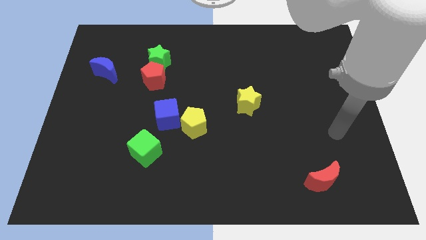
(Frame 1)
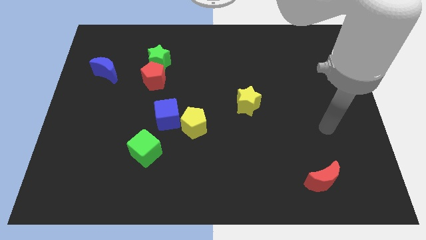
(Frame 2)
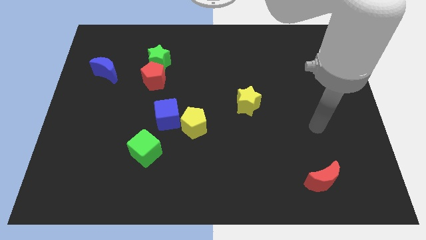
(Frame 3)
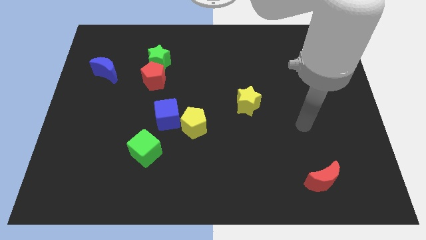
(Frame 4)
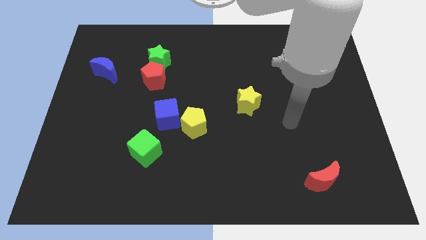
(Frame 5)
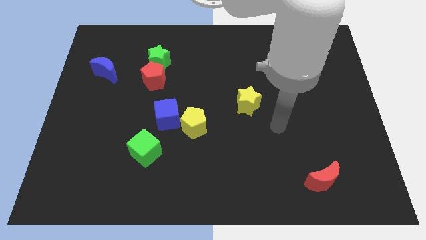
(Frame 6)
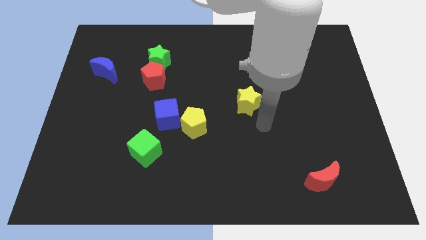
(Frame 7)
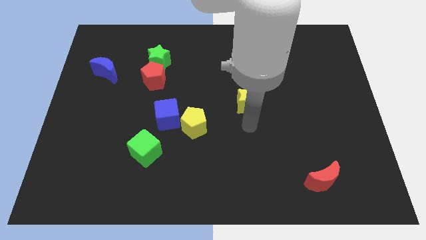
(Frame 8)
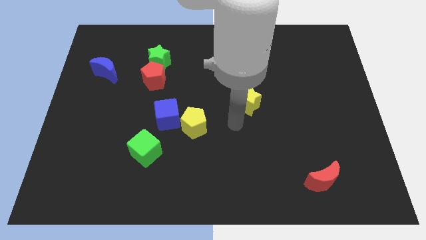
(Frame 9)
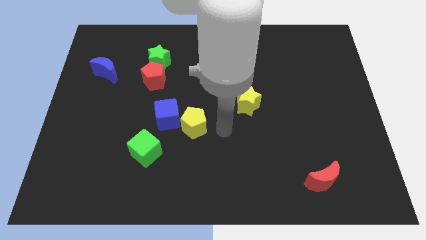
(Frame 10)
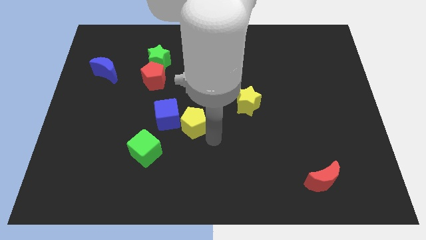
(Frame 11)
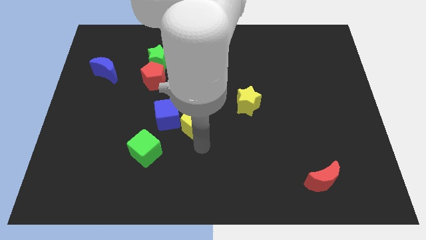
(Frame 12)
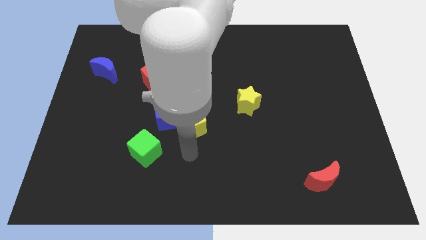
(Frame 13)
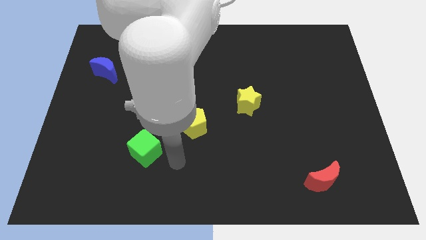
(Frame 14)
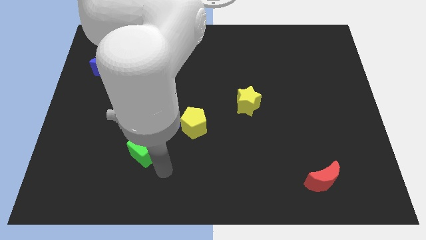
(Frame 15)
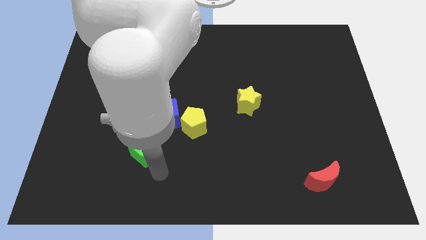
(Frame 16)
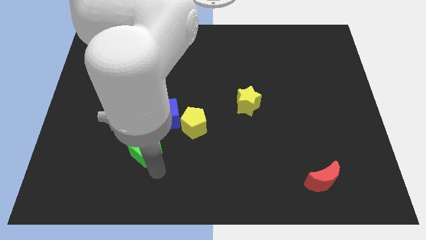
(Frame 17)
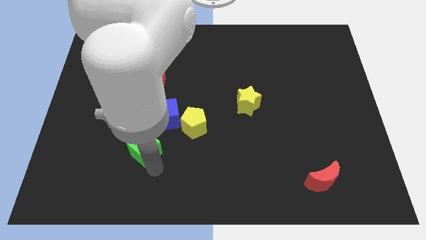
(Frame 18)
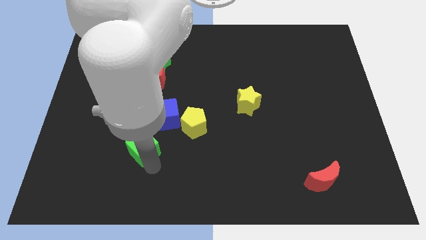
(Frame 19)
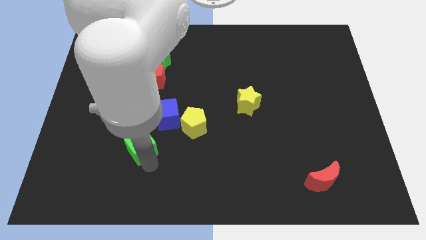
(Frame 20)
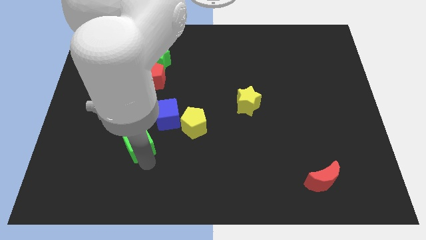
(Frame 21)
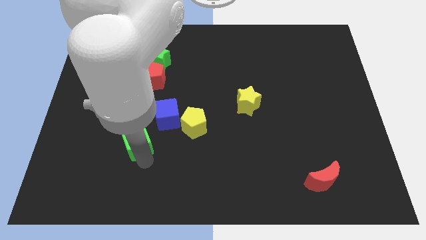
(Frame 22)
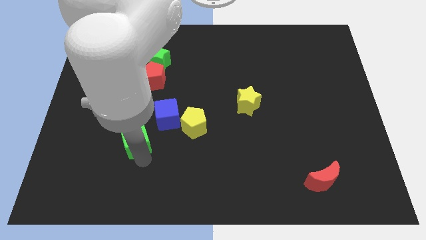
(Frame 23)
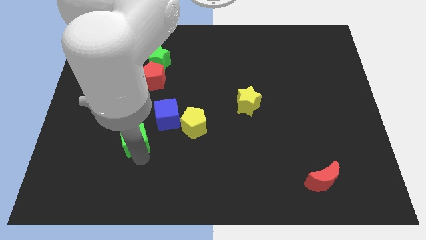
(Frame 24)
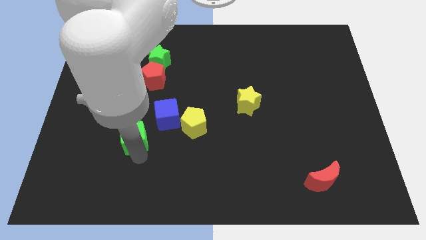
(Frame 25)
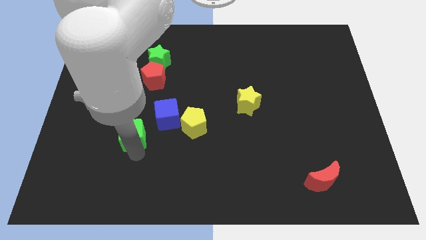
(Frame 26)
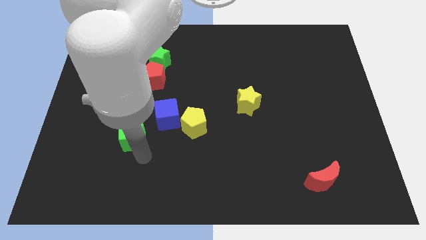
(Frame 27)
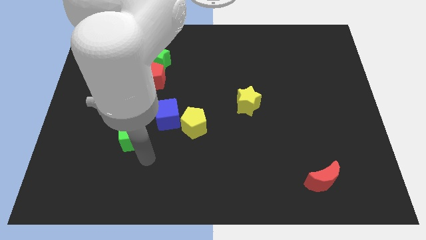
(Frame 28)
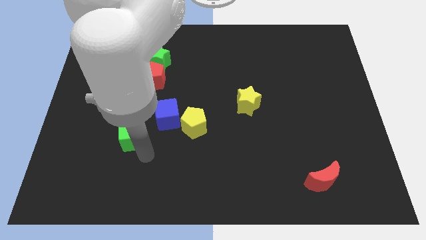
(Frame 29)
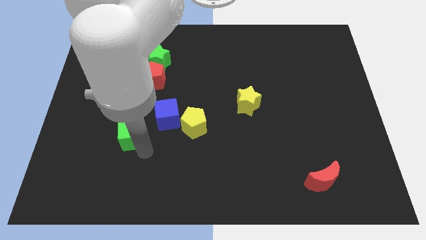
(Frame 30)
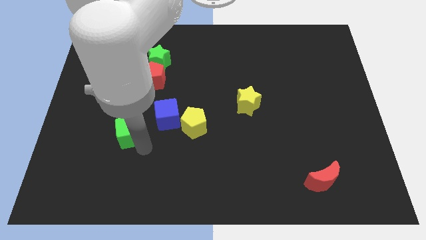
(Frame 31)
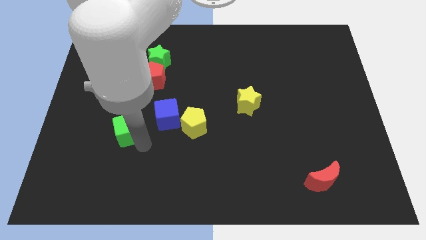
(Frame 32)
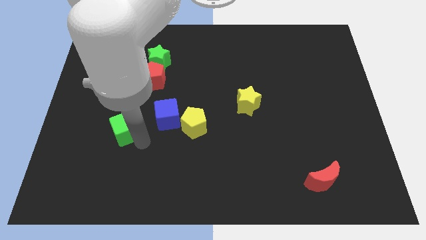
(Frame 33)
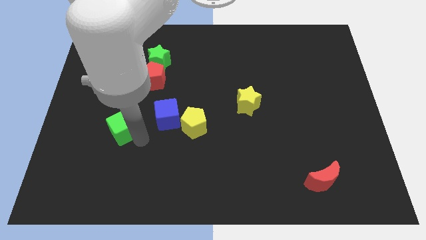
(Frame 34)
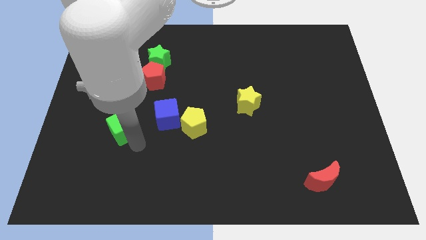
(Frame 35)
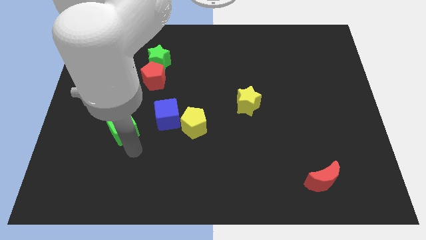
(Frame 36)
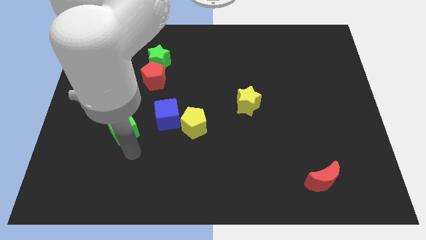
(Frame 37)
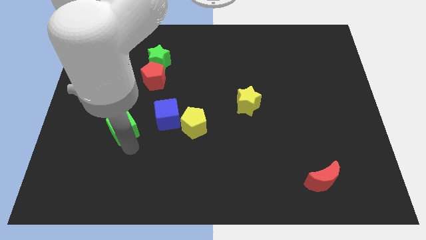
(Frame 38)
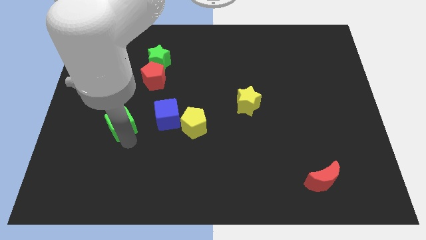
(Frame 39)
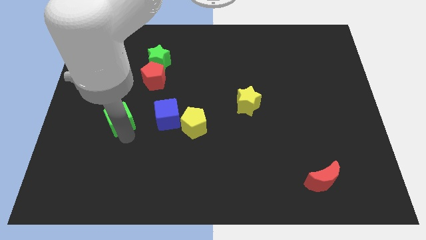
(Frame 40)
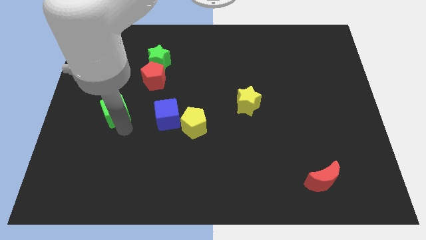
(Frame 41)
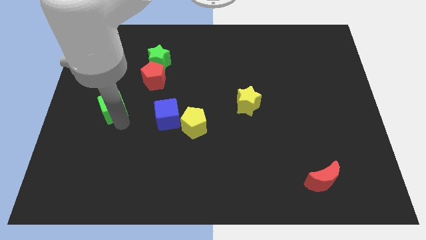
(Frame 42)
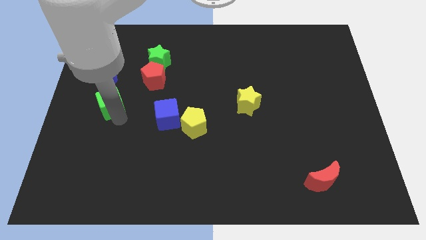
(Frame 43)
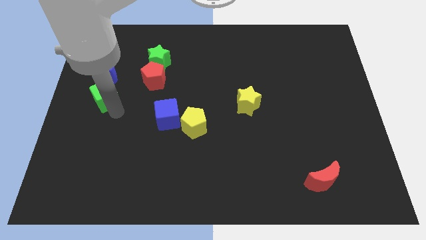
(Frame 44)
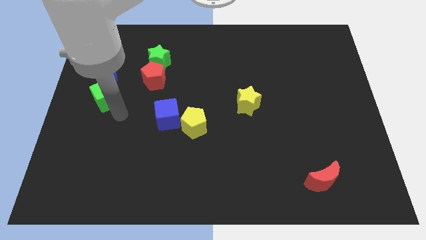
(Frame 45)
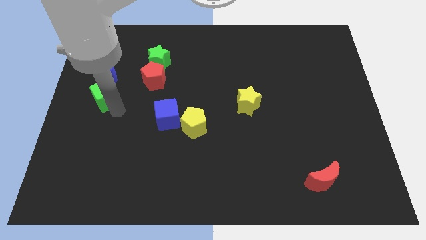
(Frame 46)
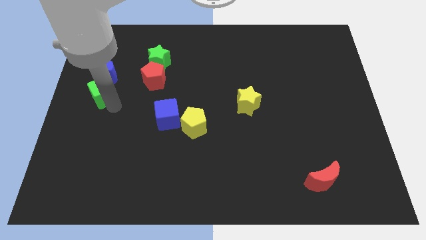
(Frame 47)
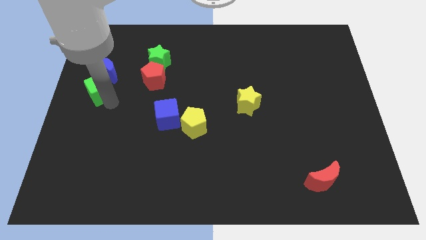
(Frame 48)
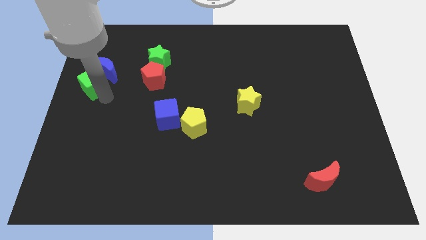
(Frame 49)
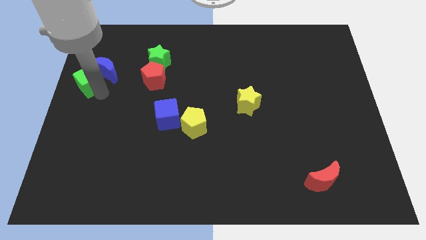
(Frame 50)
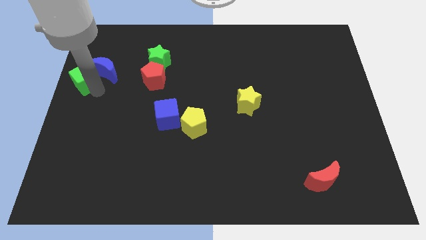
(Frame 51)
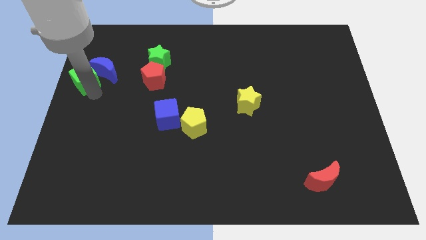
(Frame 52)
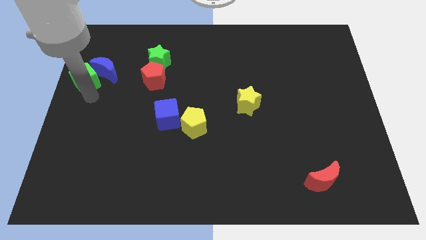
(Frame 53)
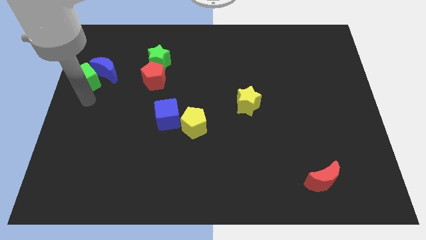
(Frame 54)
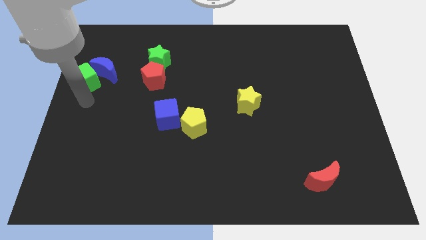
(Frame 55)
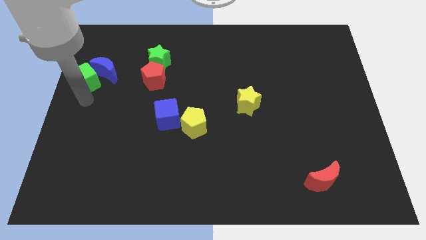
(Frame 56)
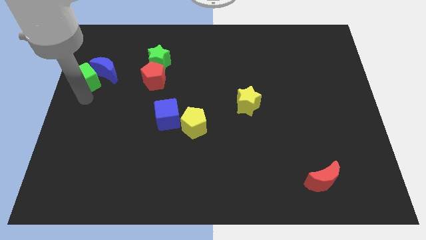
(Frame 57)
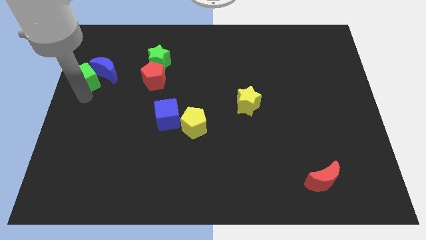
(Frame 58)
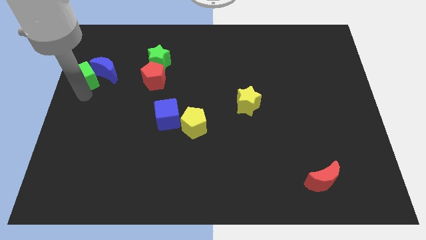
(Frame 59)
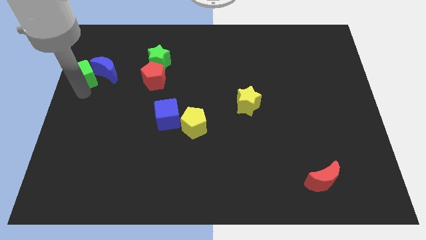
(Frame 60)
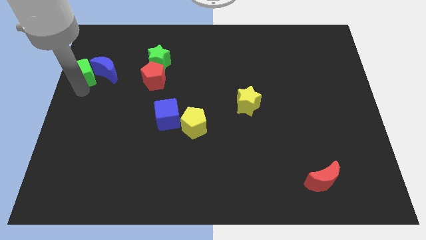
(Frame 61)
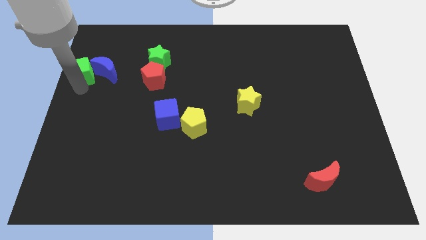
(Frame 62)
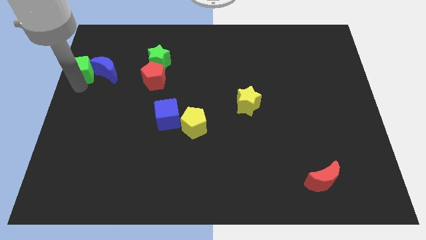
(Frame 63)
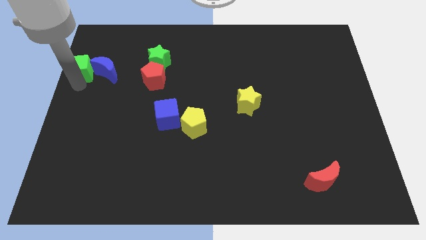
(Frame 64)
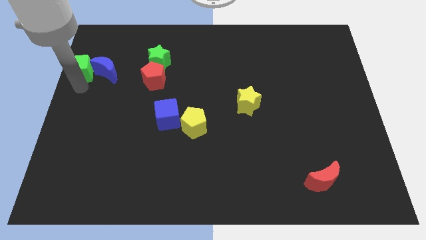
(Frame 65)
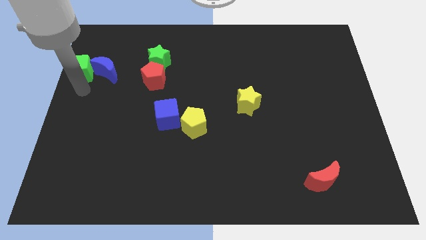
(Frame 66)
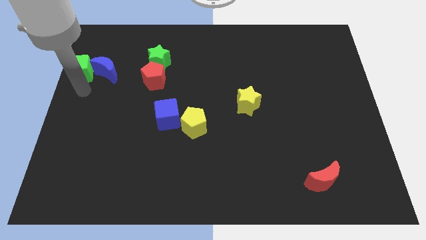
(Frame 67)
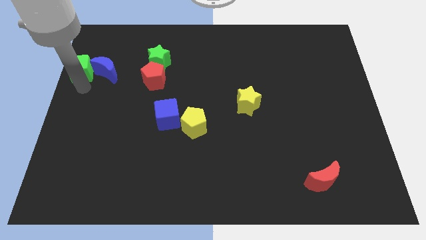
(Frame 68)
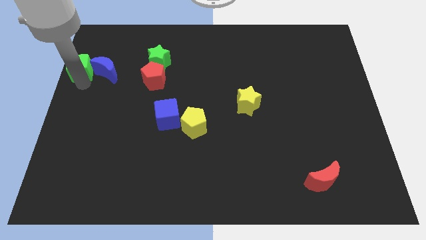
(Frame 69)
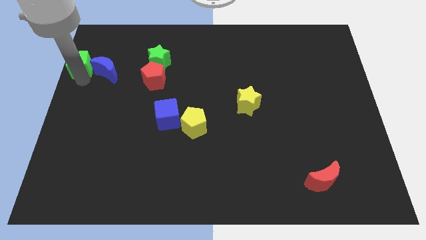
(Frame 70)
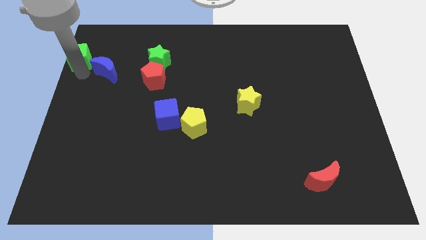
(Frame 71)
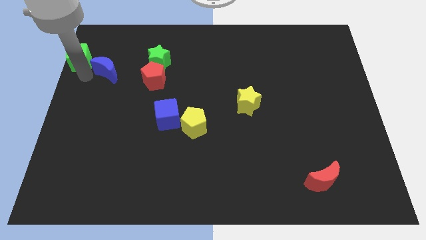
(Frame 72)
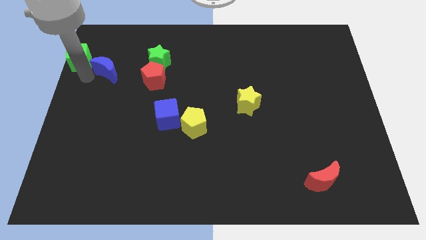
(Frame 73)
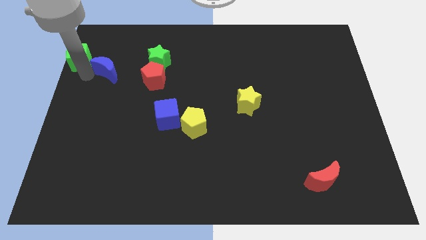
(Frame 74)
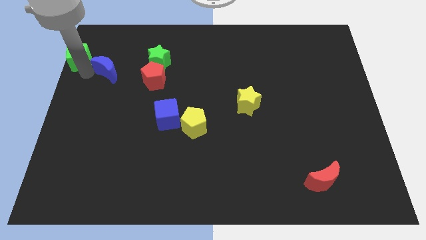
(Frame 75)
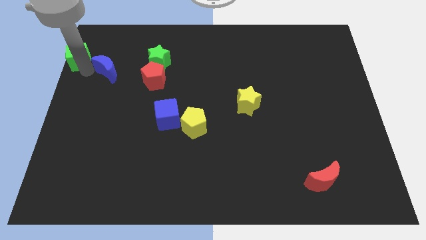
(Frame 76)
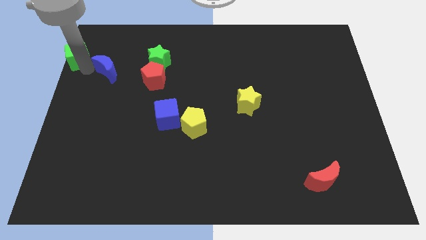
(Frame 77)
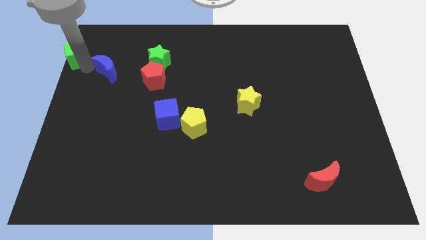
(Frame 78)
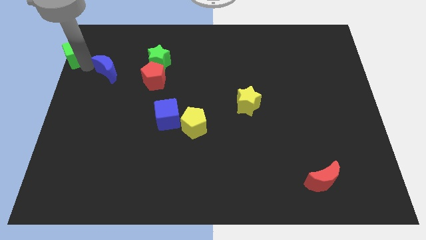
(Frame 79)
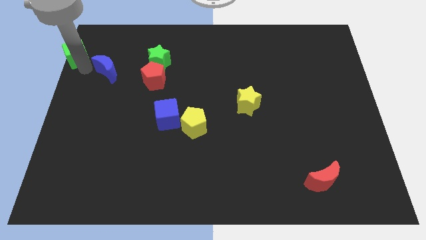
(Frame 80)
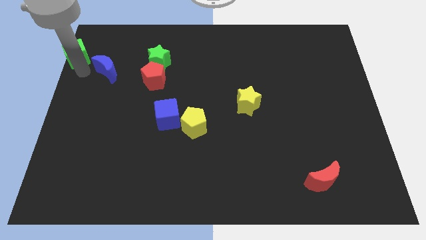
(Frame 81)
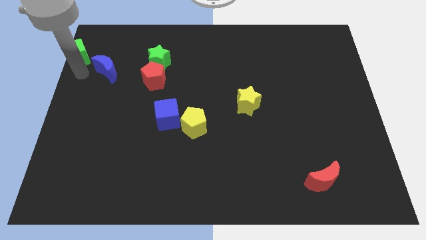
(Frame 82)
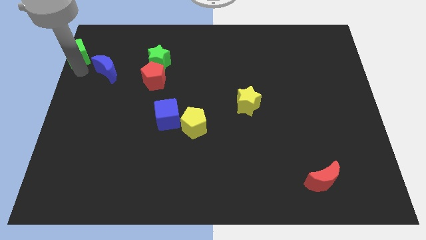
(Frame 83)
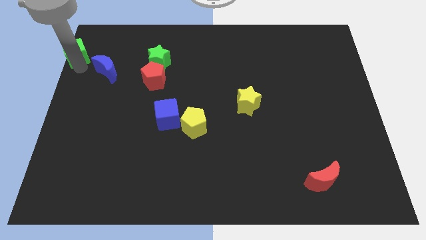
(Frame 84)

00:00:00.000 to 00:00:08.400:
push the green cube to the upper left corner
